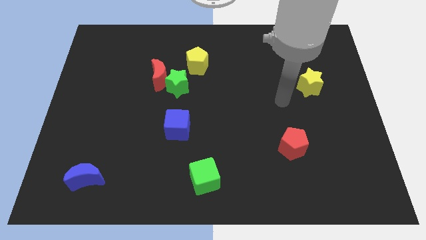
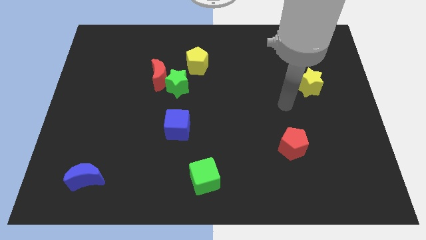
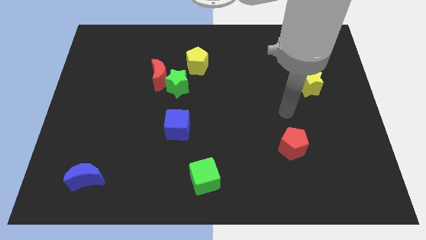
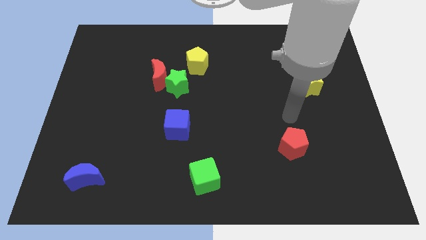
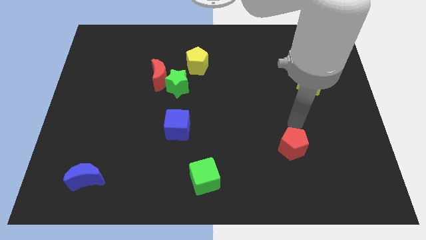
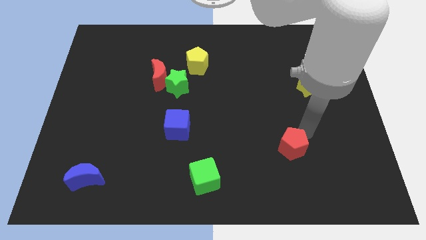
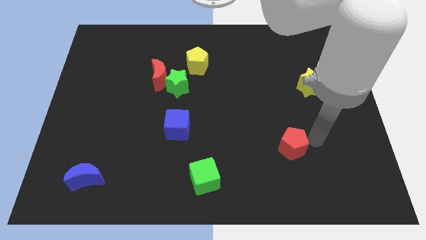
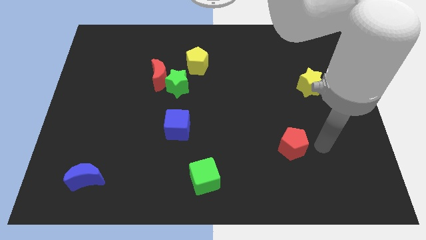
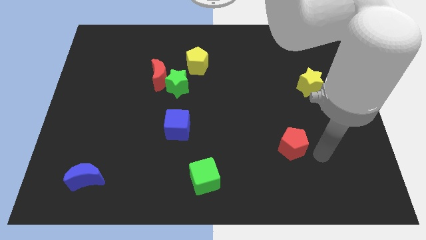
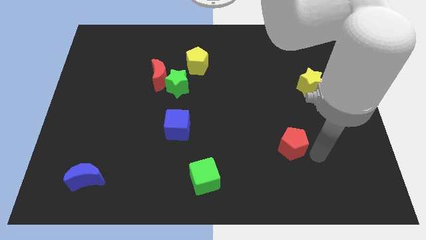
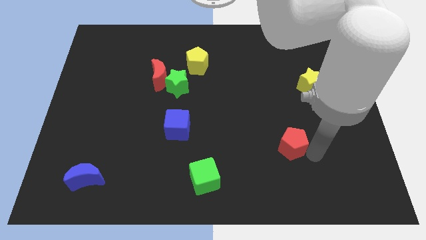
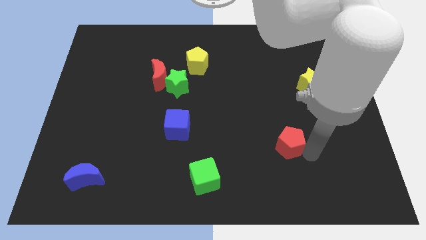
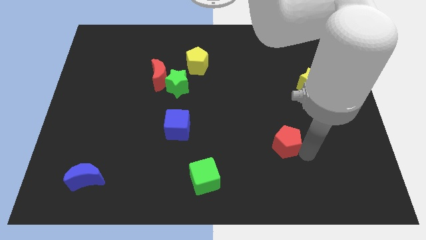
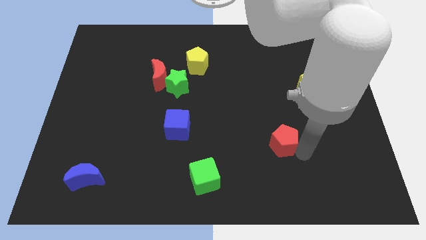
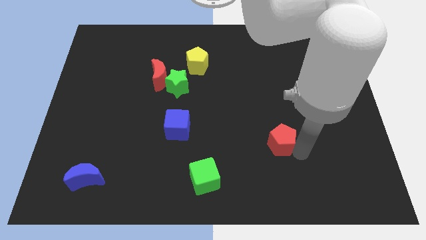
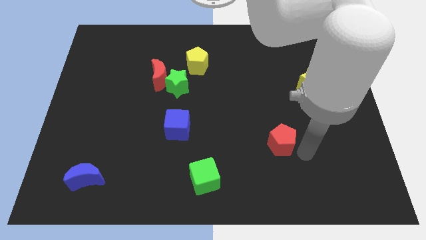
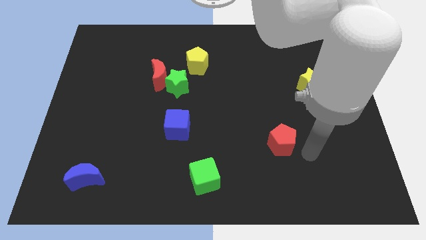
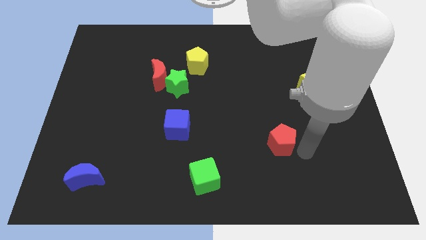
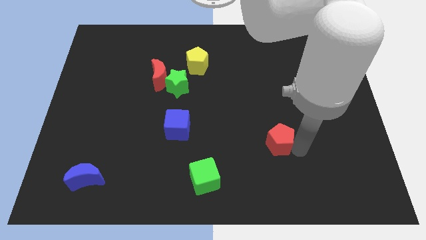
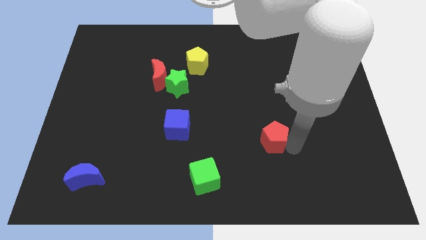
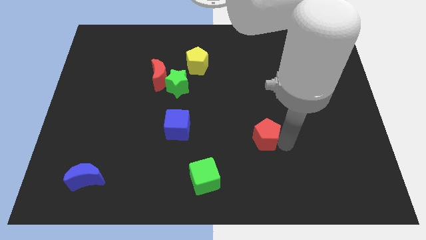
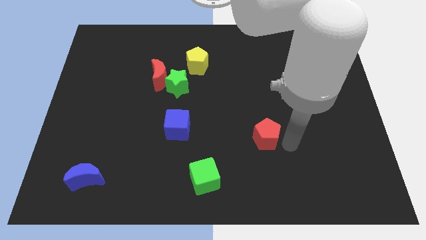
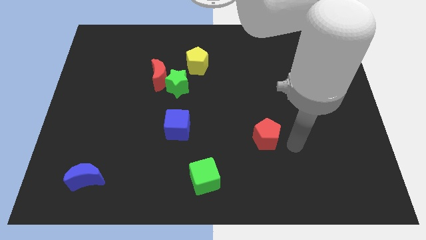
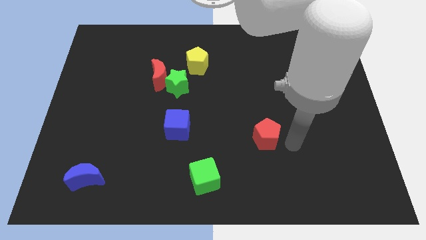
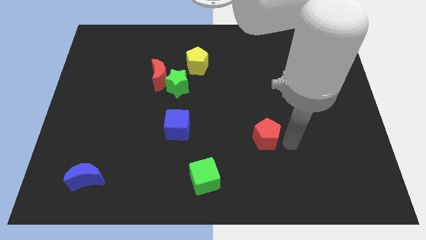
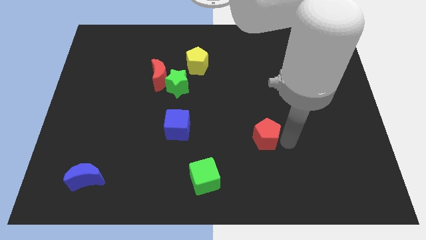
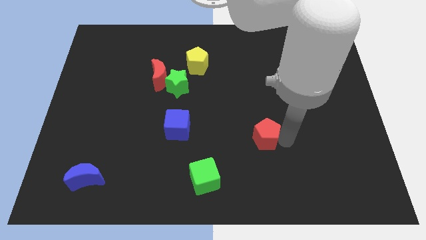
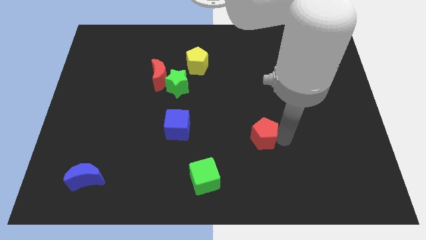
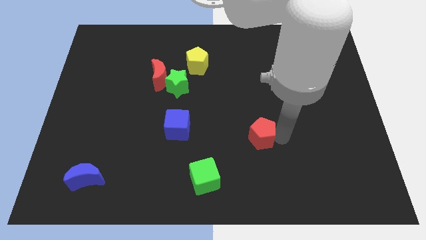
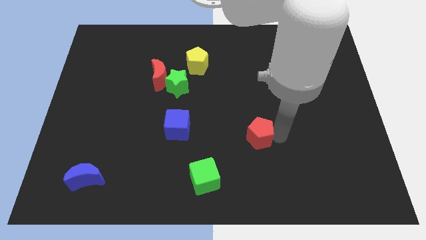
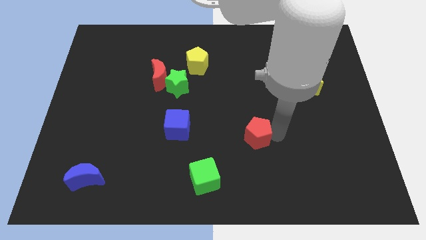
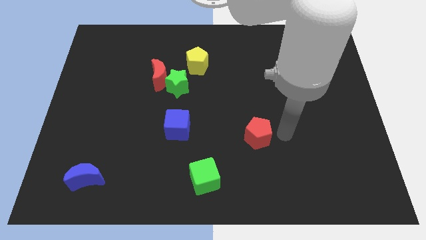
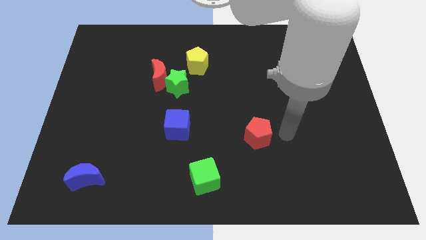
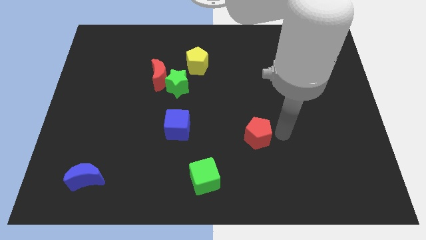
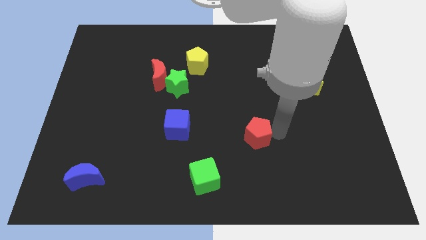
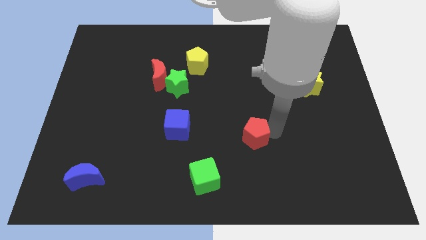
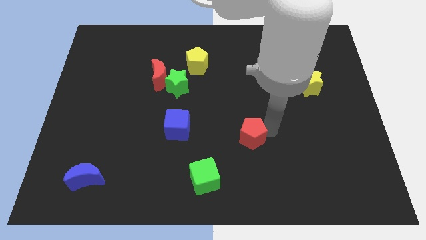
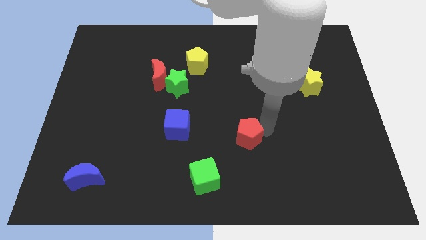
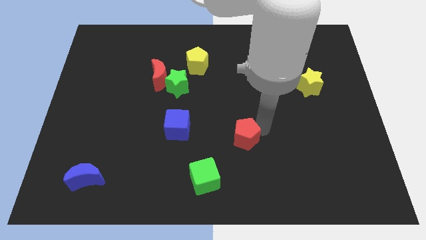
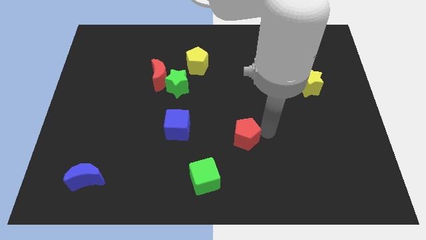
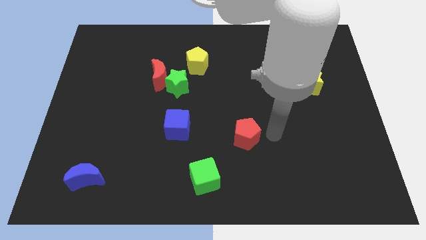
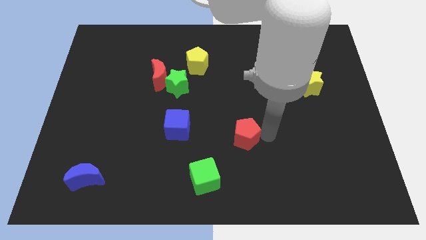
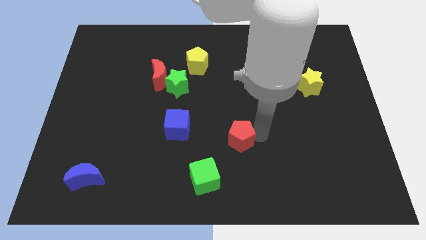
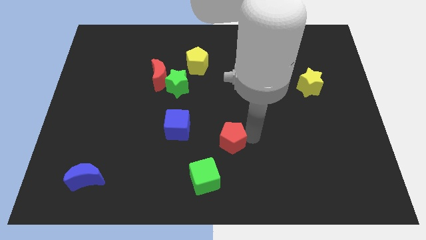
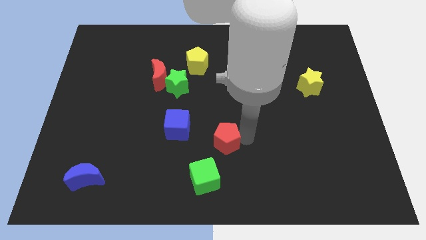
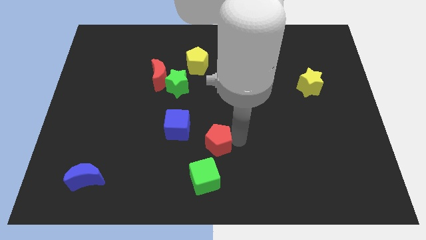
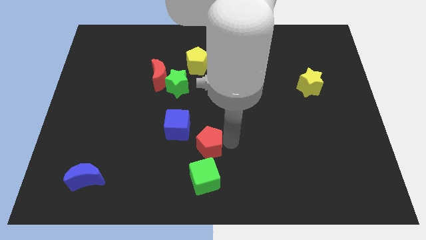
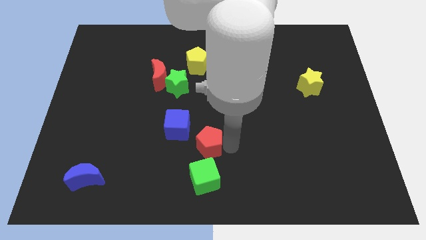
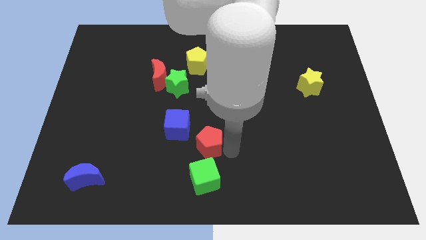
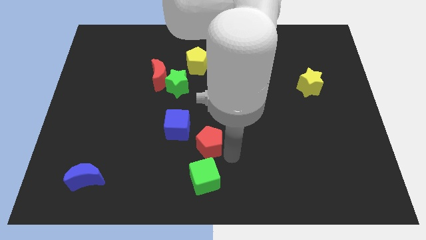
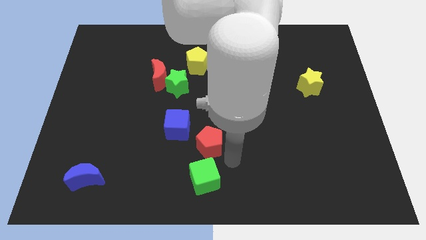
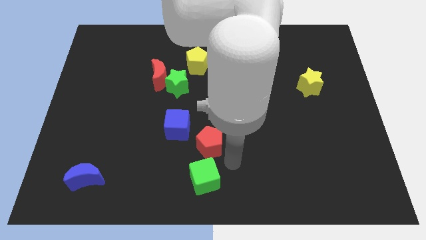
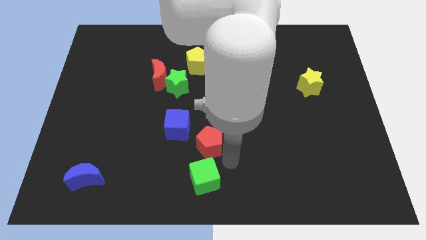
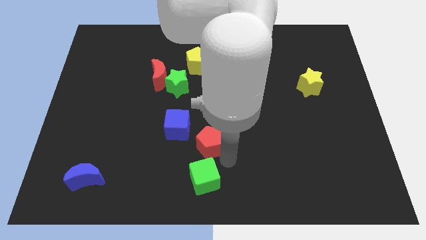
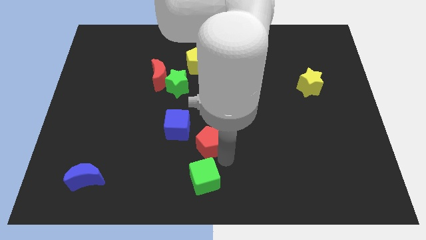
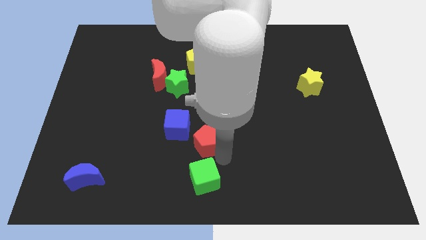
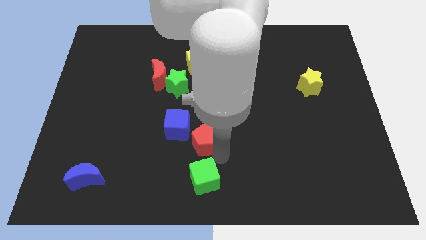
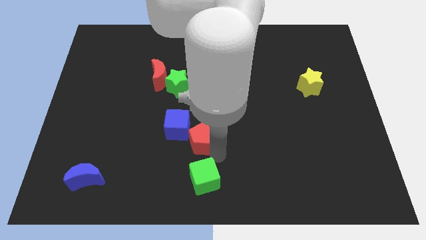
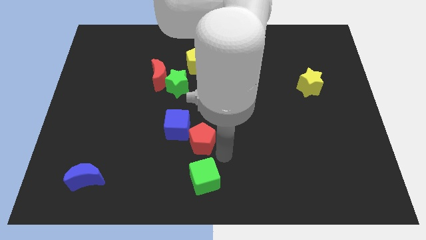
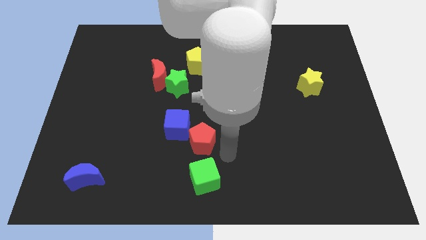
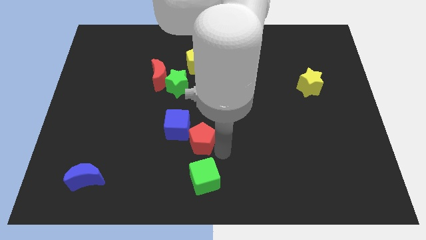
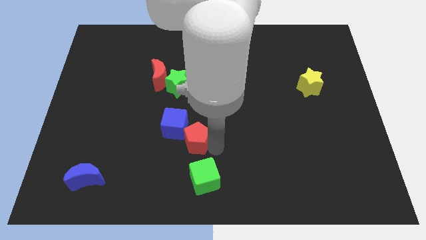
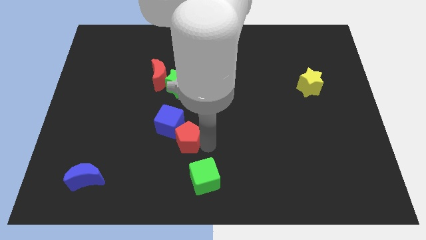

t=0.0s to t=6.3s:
push the red pentagon to the blue cube

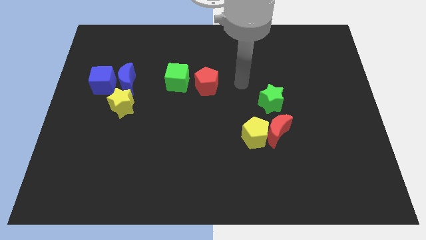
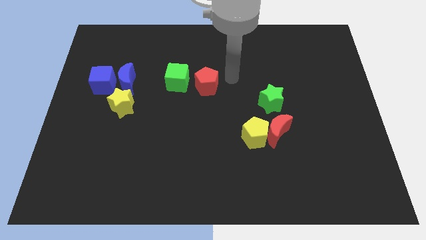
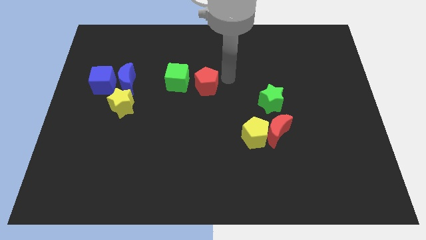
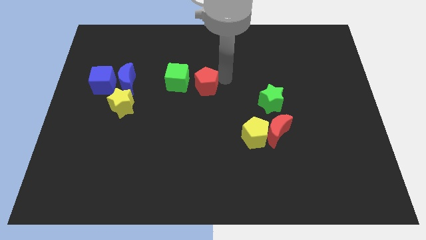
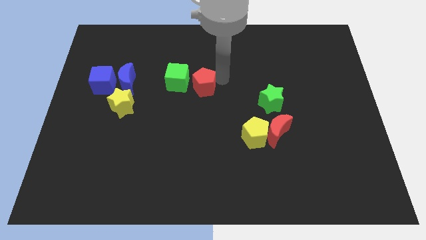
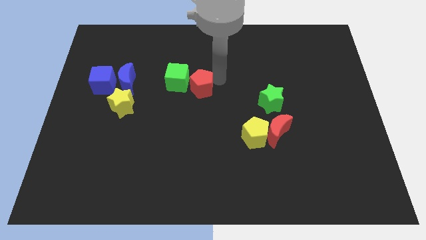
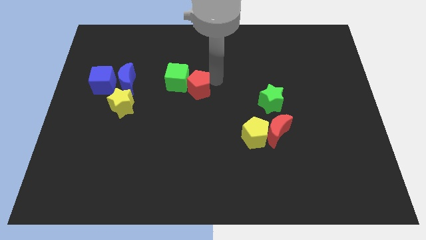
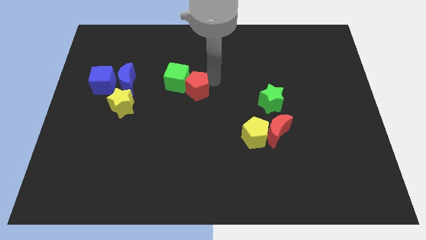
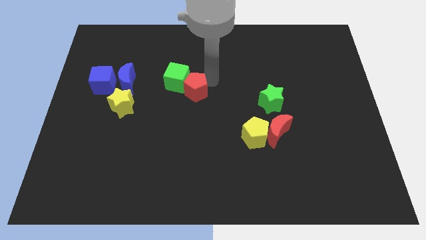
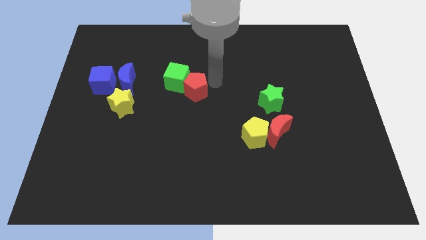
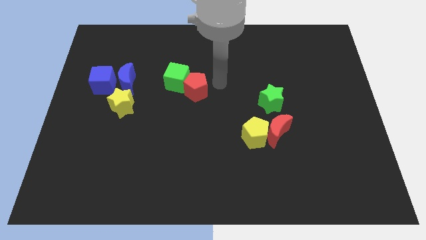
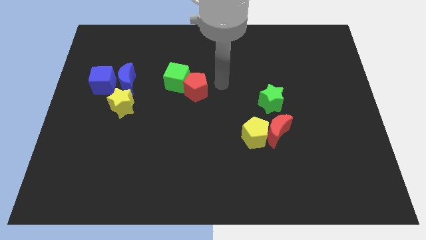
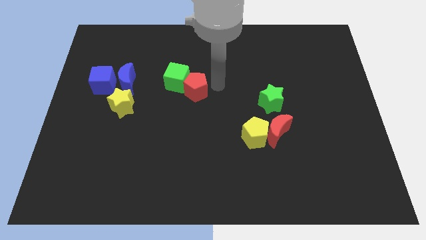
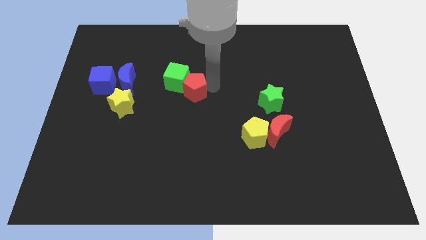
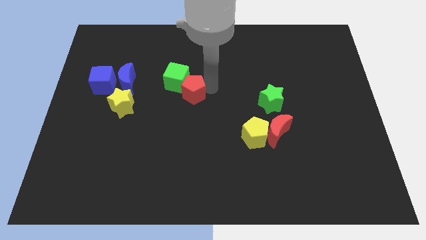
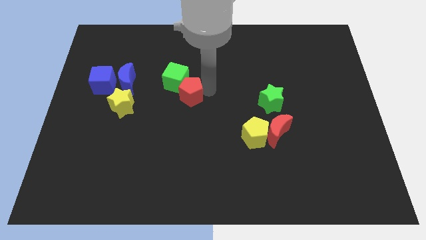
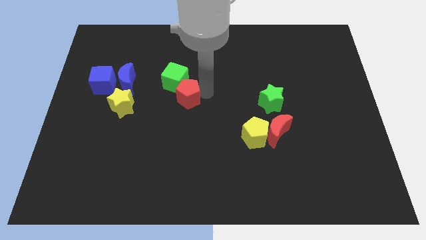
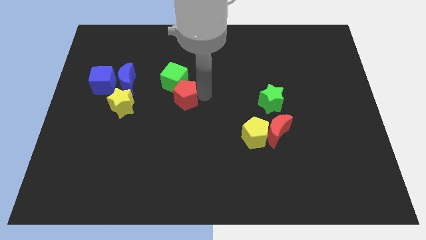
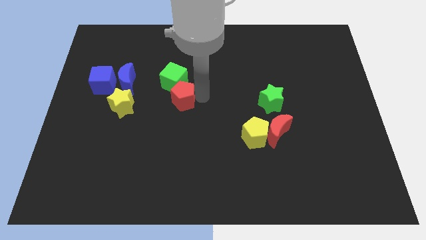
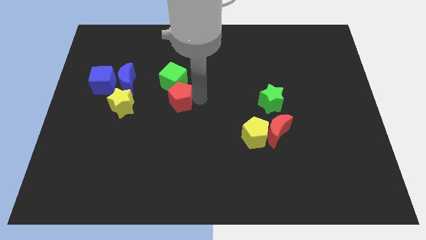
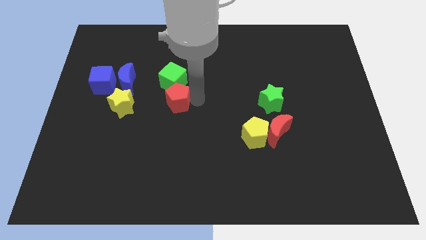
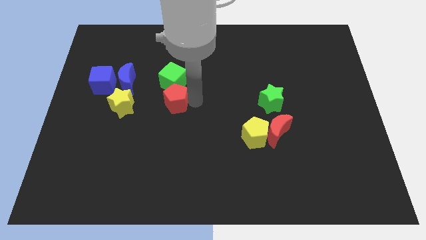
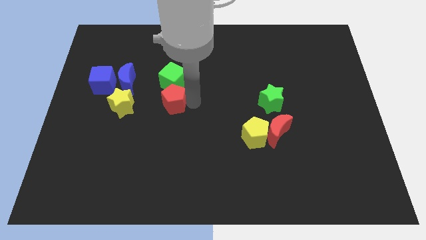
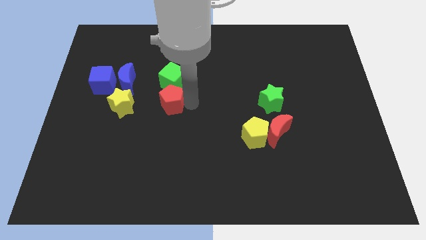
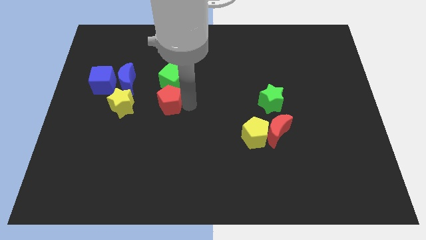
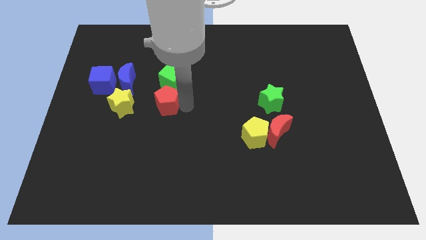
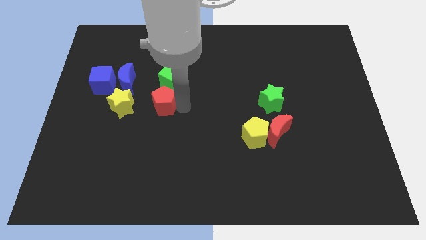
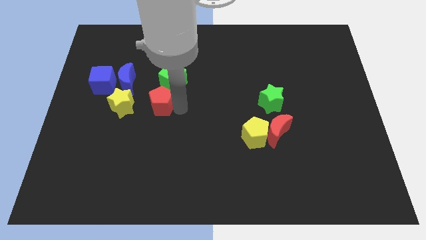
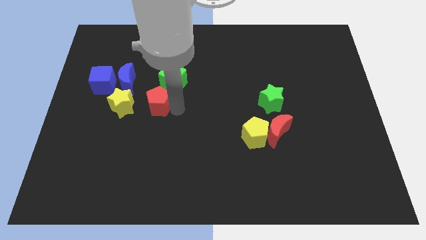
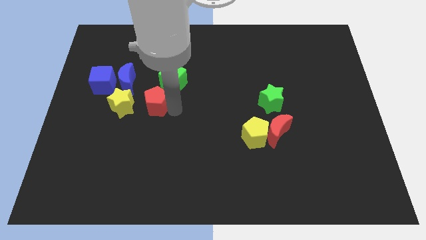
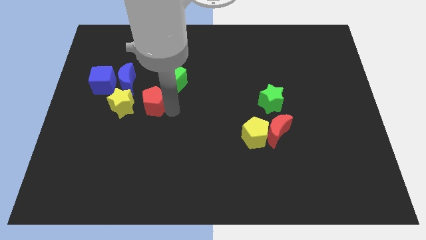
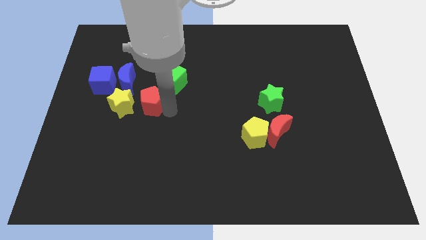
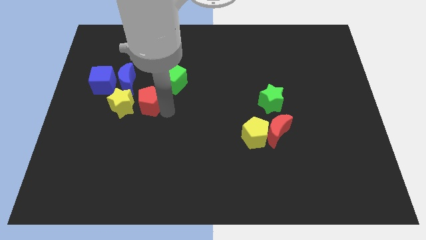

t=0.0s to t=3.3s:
slide the red pentagon close to the yellow star
